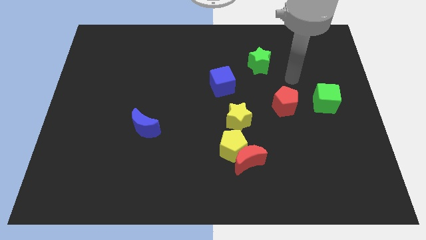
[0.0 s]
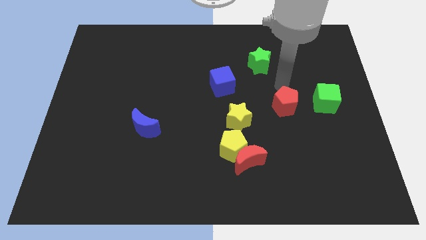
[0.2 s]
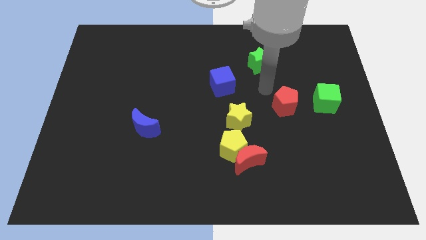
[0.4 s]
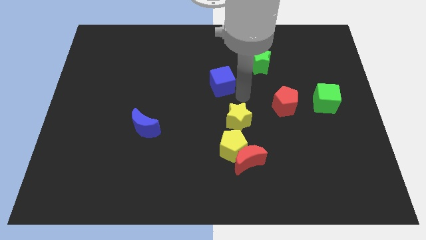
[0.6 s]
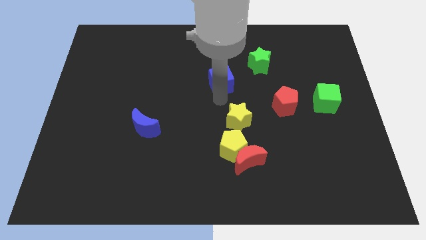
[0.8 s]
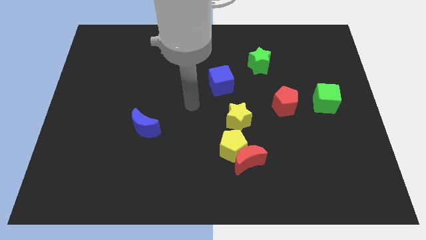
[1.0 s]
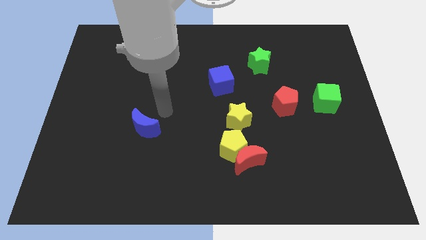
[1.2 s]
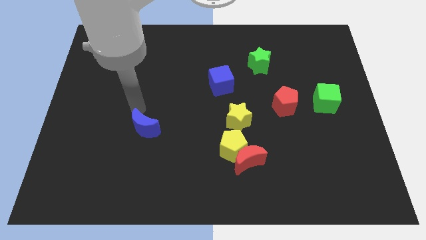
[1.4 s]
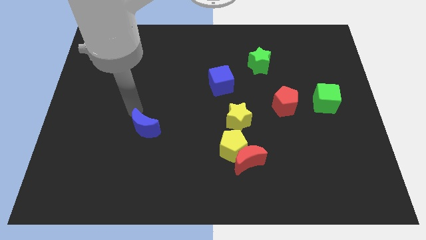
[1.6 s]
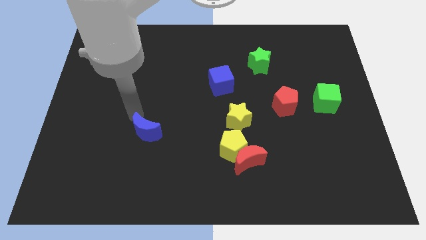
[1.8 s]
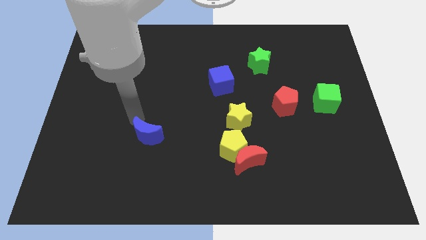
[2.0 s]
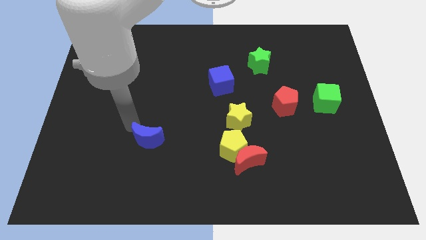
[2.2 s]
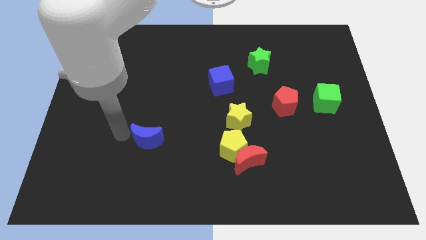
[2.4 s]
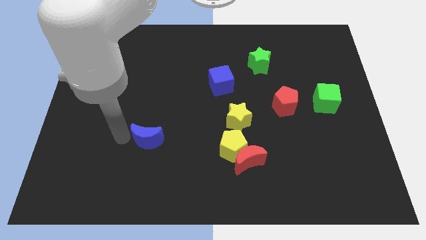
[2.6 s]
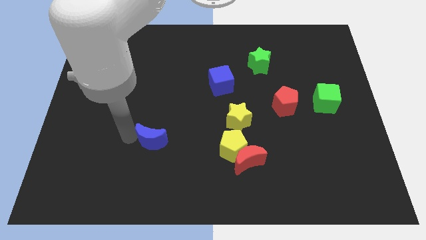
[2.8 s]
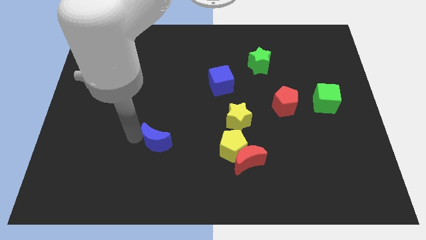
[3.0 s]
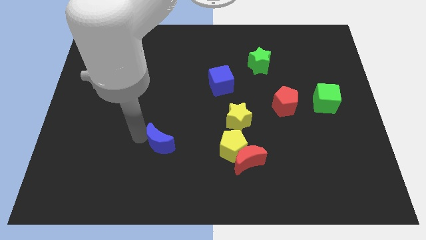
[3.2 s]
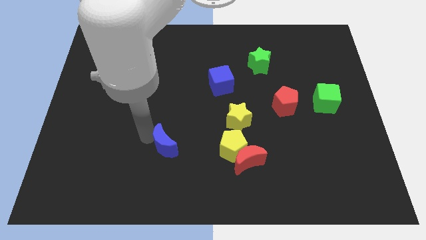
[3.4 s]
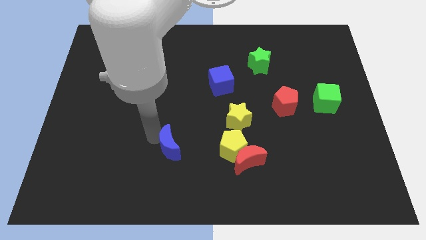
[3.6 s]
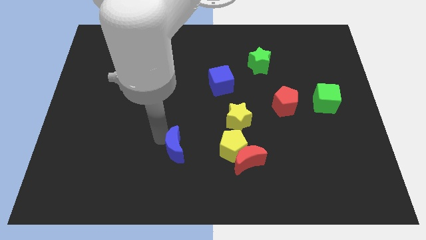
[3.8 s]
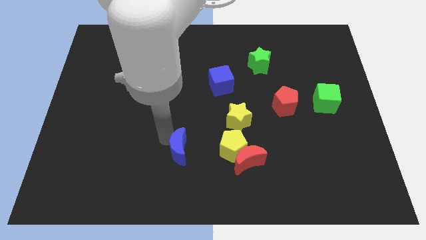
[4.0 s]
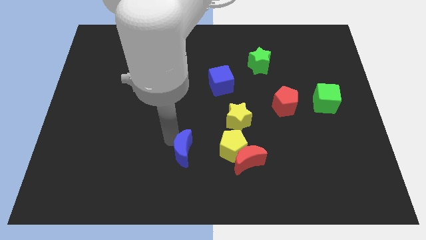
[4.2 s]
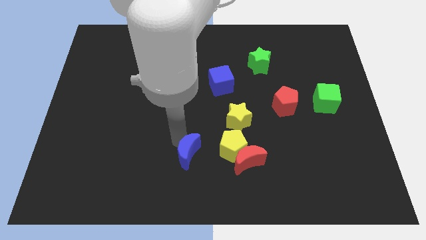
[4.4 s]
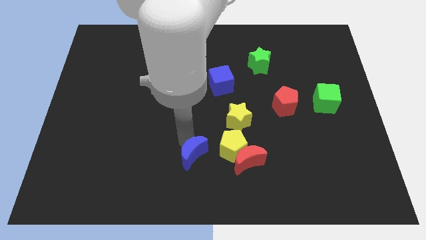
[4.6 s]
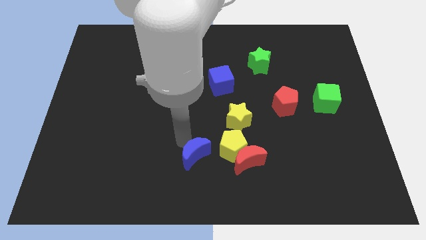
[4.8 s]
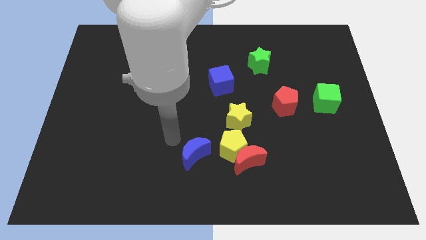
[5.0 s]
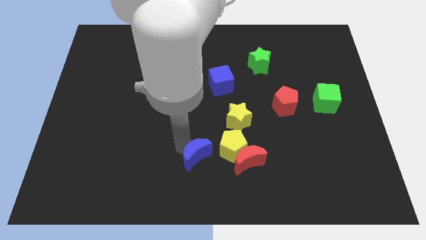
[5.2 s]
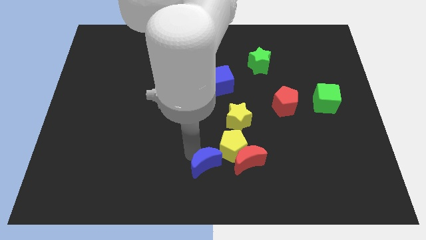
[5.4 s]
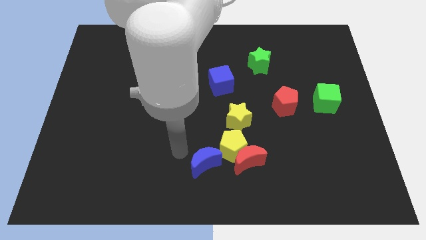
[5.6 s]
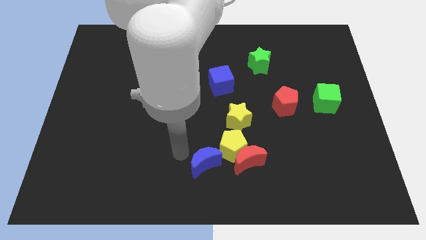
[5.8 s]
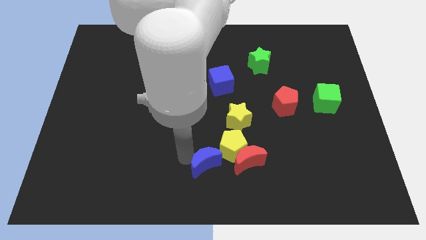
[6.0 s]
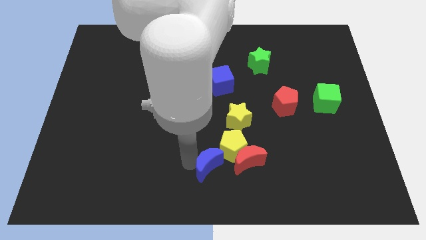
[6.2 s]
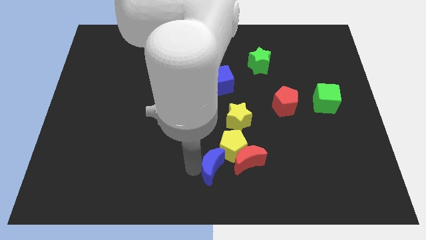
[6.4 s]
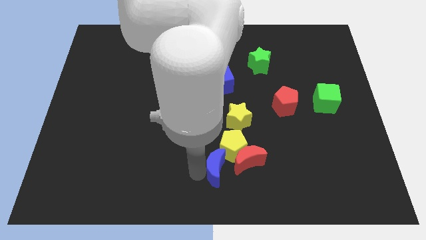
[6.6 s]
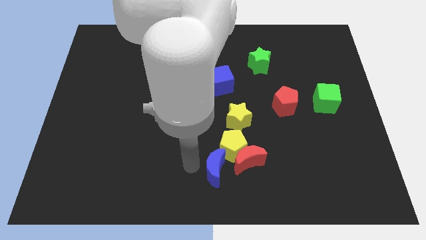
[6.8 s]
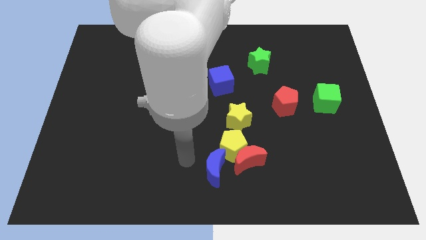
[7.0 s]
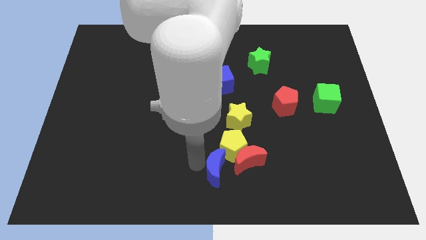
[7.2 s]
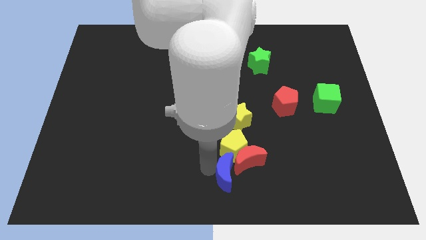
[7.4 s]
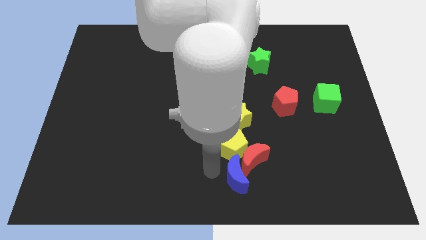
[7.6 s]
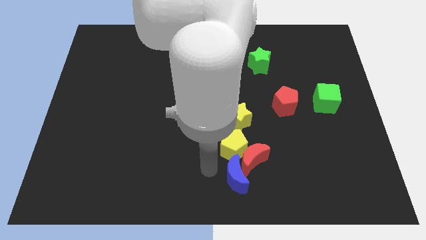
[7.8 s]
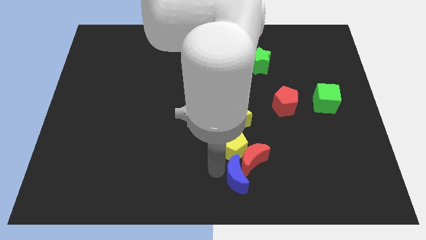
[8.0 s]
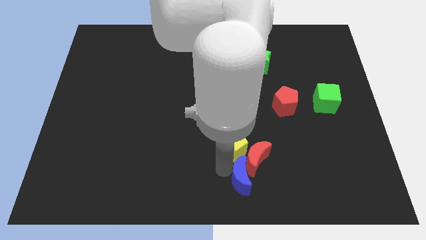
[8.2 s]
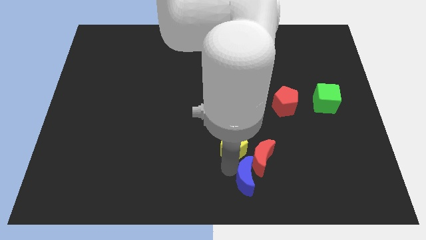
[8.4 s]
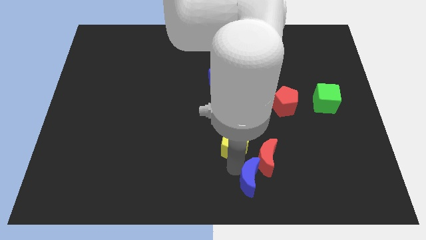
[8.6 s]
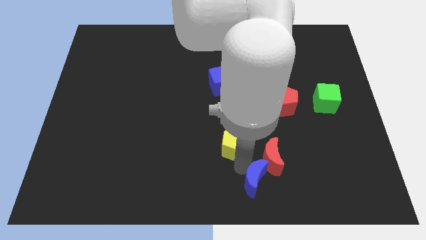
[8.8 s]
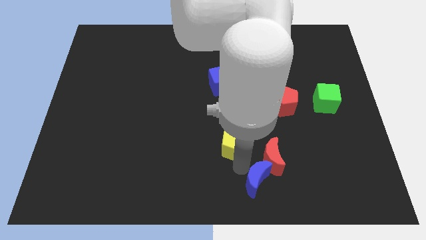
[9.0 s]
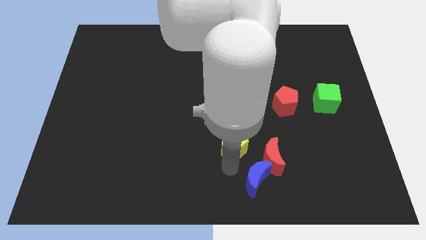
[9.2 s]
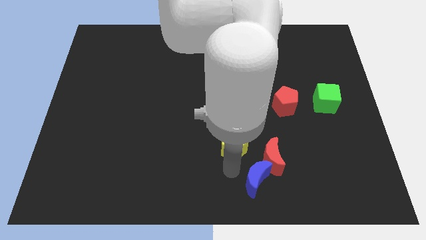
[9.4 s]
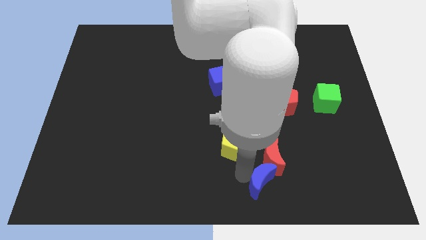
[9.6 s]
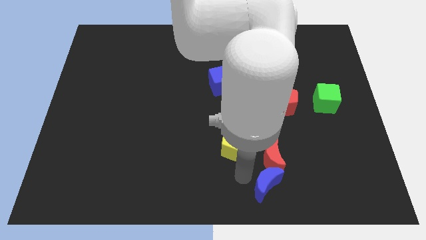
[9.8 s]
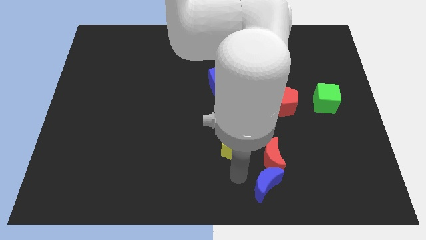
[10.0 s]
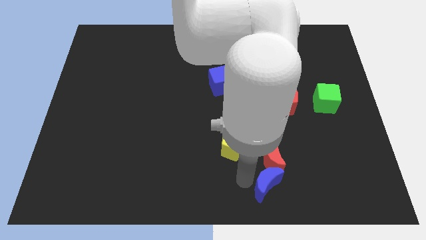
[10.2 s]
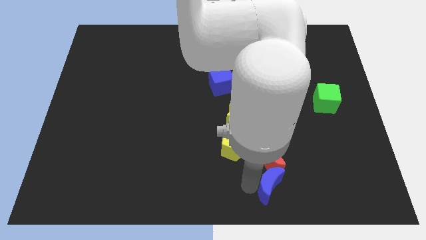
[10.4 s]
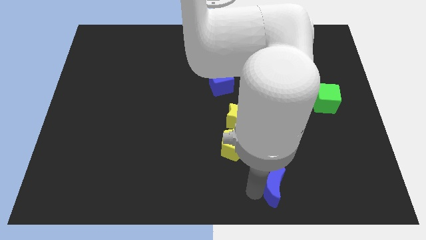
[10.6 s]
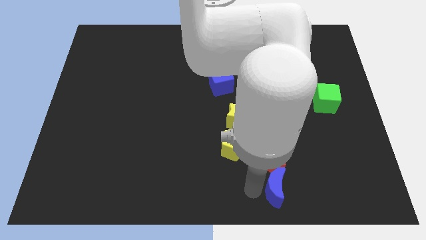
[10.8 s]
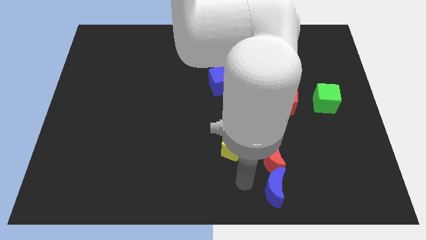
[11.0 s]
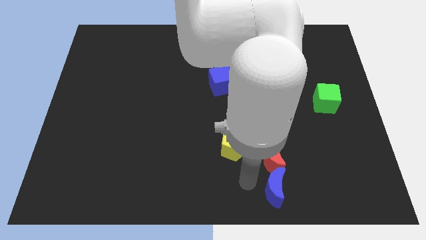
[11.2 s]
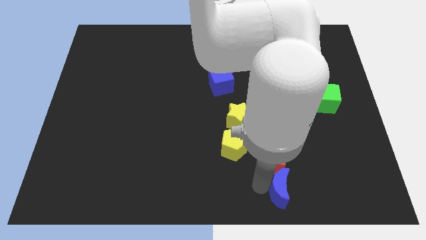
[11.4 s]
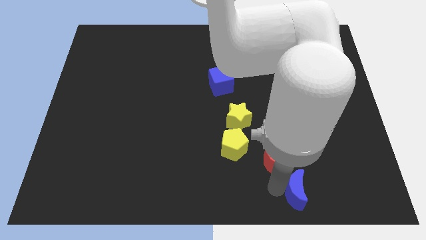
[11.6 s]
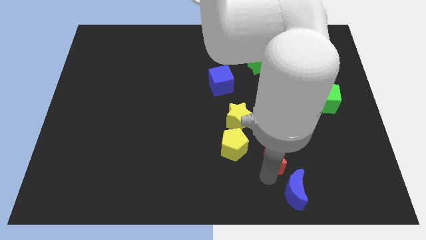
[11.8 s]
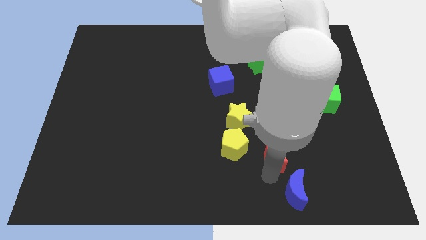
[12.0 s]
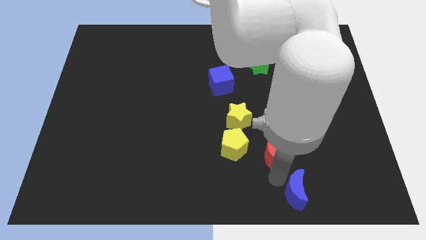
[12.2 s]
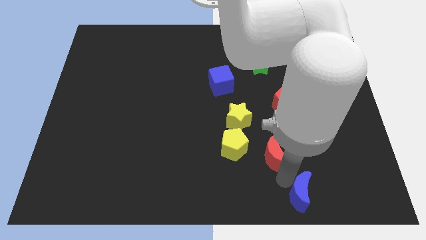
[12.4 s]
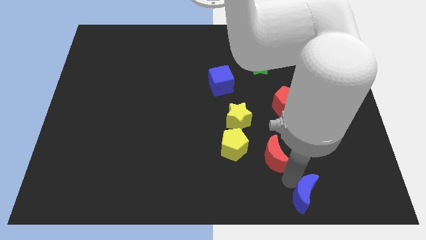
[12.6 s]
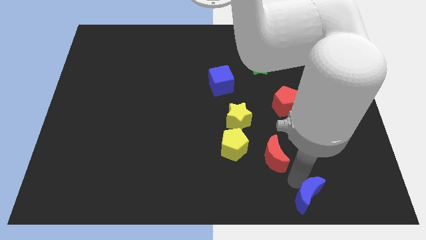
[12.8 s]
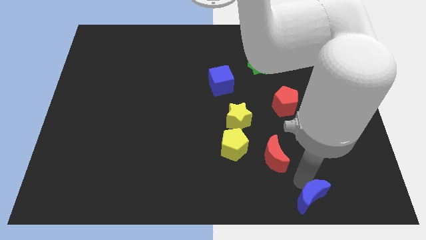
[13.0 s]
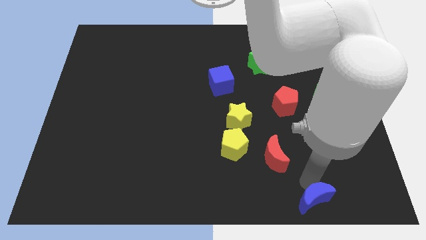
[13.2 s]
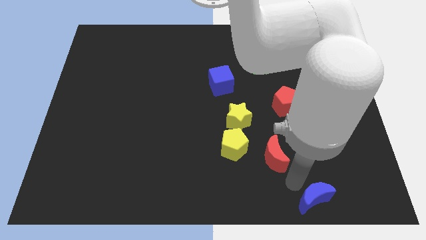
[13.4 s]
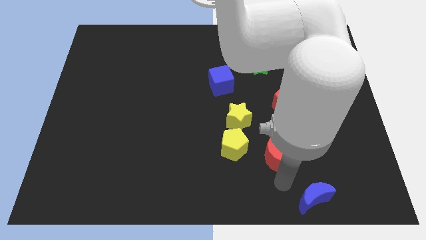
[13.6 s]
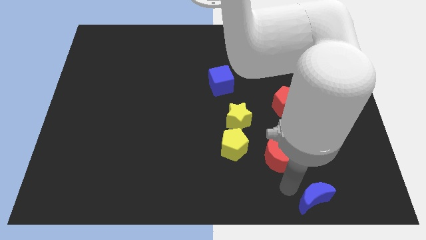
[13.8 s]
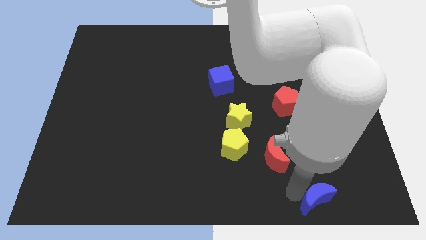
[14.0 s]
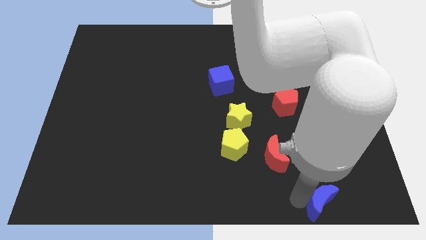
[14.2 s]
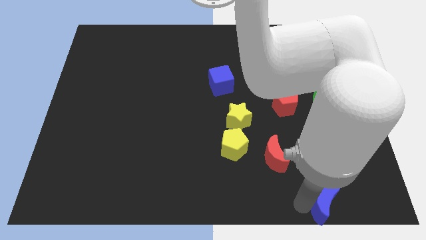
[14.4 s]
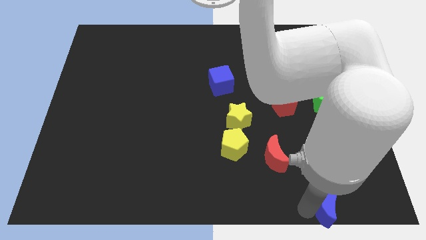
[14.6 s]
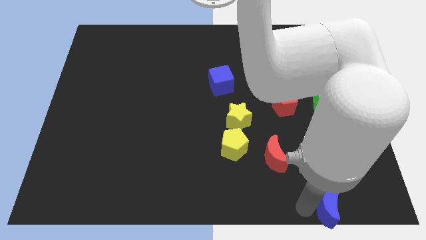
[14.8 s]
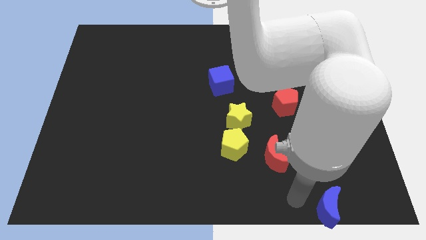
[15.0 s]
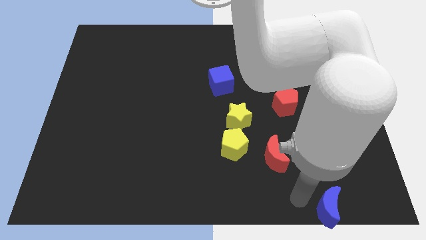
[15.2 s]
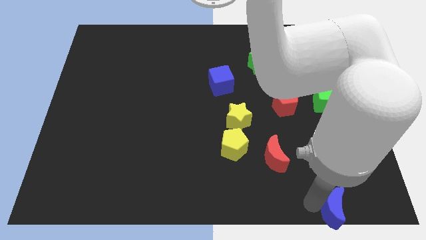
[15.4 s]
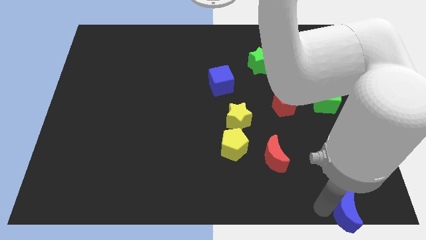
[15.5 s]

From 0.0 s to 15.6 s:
push the blue moon to the bottom right

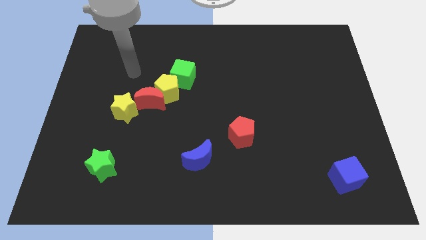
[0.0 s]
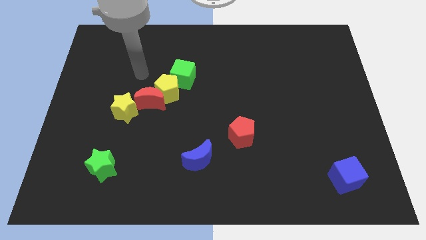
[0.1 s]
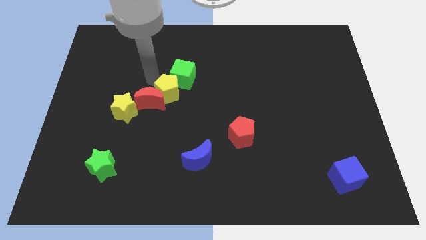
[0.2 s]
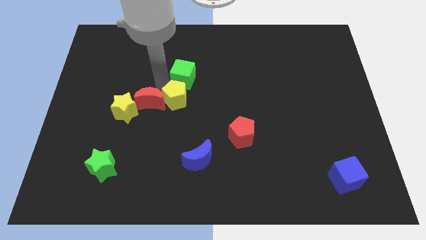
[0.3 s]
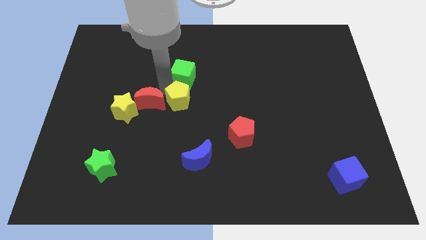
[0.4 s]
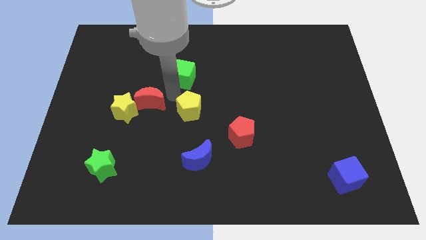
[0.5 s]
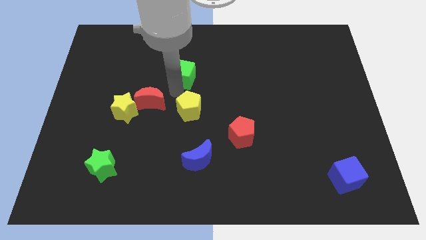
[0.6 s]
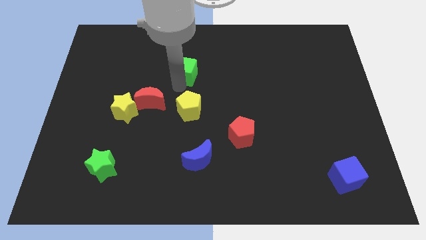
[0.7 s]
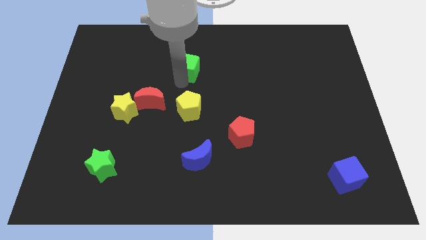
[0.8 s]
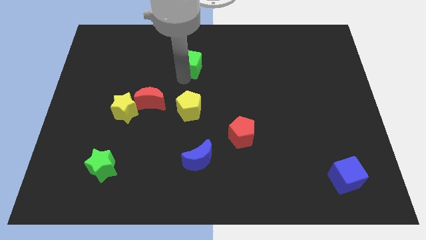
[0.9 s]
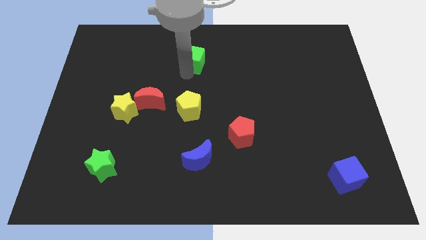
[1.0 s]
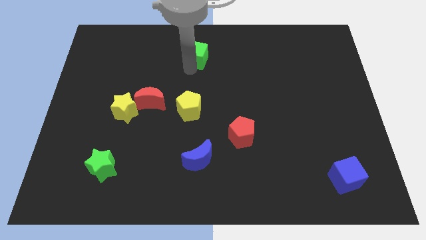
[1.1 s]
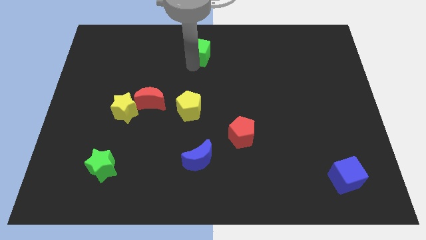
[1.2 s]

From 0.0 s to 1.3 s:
put the green cube to the towards your base
